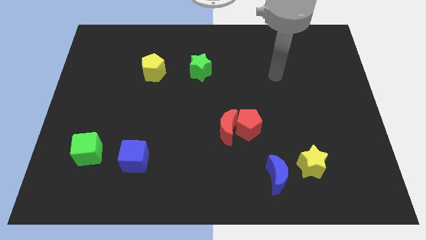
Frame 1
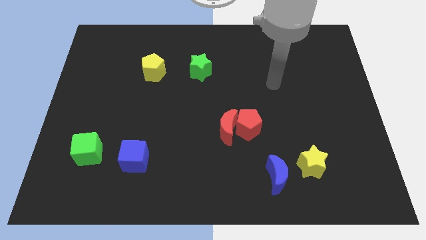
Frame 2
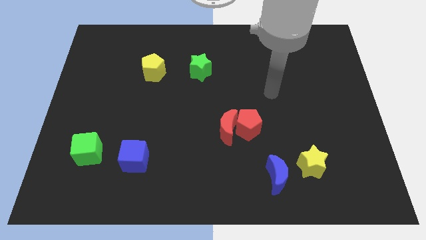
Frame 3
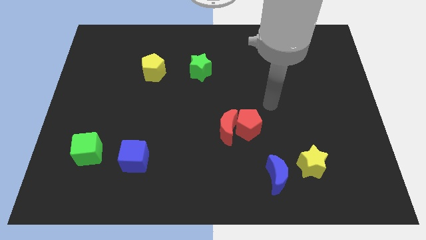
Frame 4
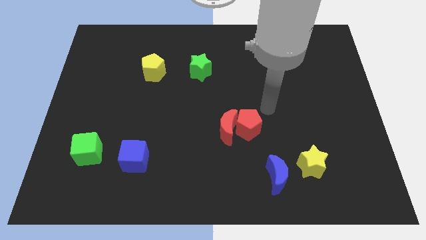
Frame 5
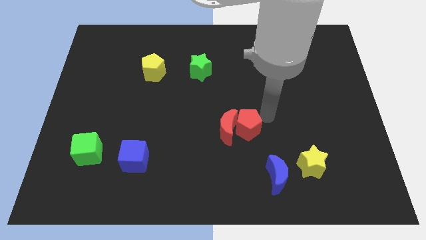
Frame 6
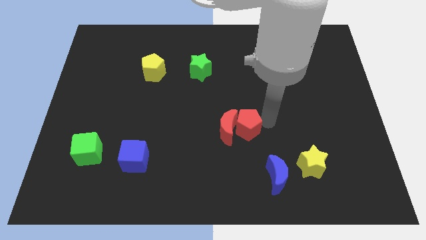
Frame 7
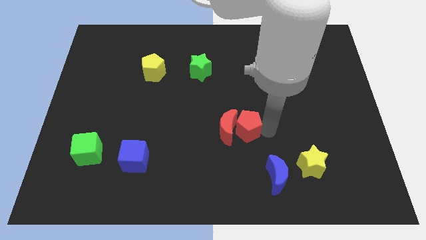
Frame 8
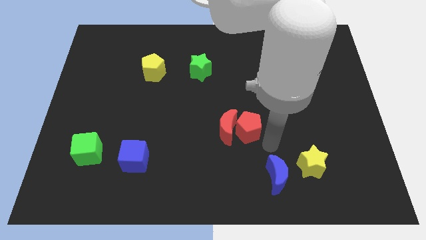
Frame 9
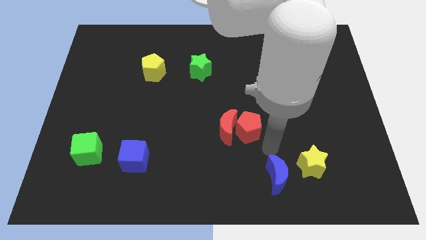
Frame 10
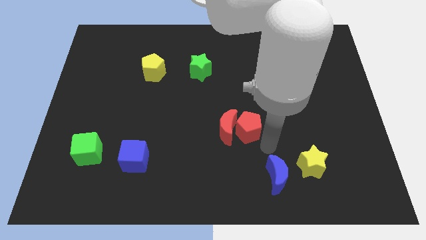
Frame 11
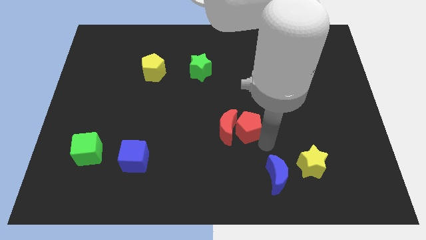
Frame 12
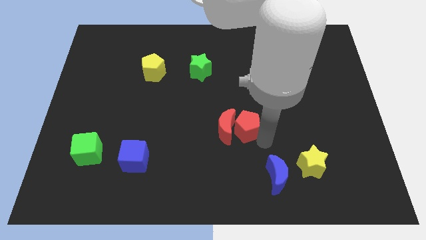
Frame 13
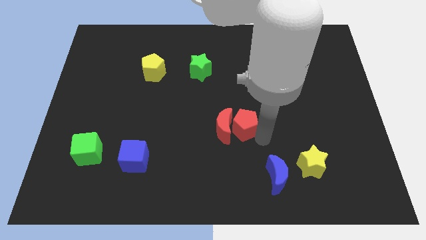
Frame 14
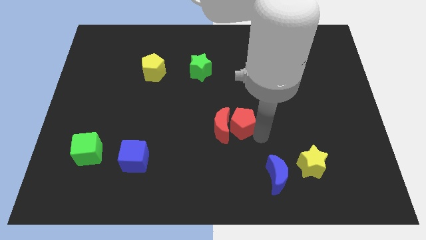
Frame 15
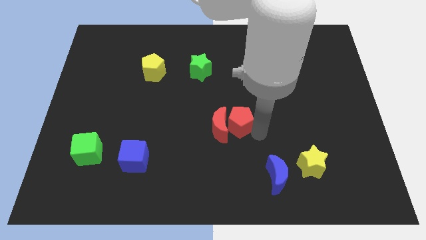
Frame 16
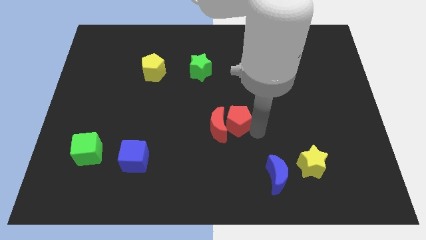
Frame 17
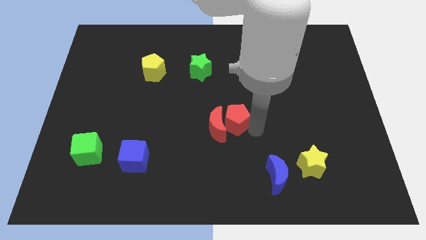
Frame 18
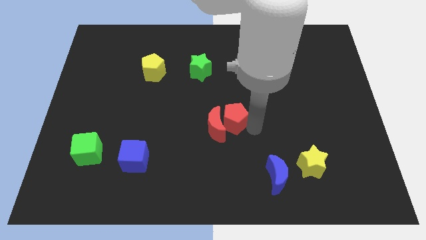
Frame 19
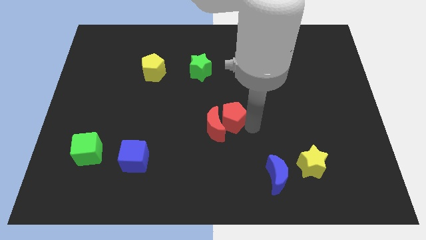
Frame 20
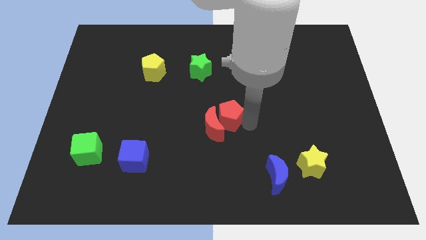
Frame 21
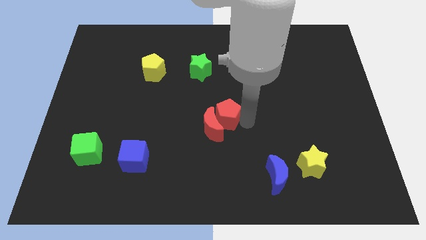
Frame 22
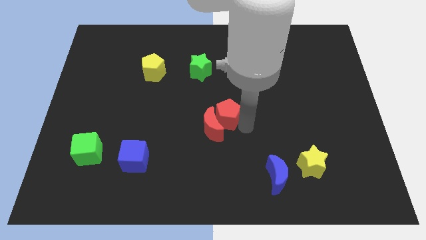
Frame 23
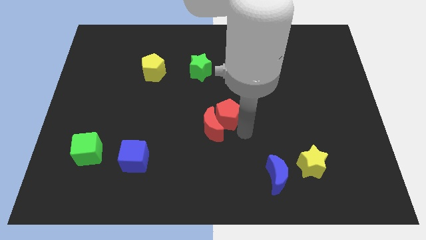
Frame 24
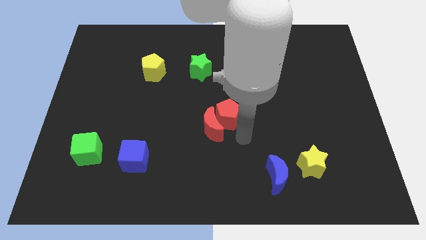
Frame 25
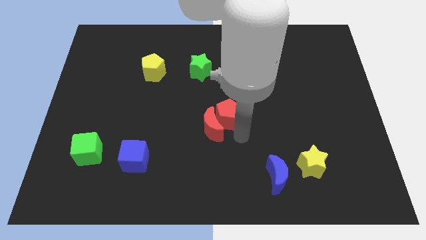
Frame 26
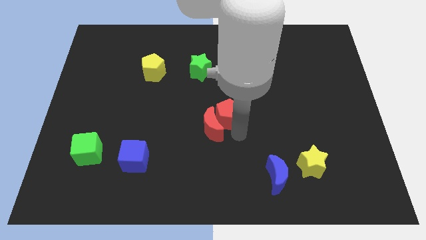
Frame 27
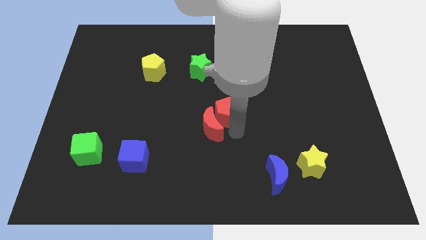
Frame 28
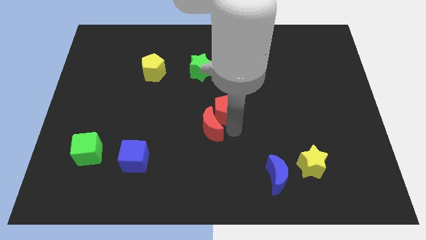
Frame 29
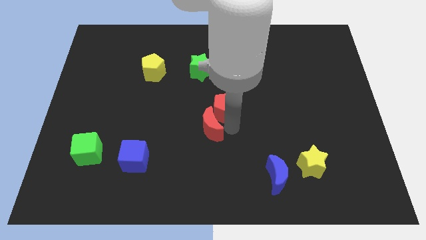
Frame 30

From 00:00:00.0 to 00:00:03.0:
push the red pentagon a little diagonally up and to the left

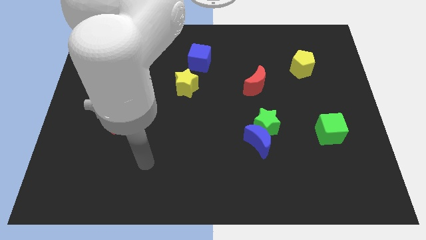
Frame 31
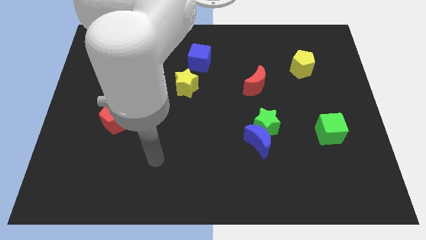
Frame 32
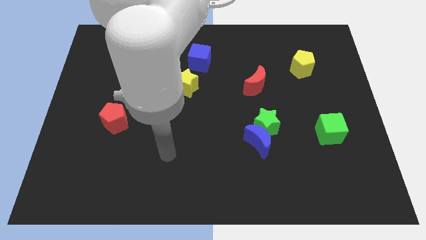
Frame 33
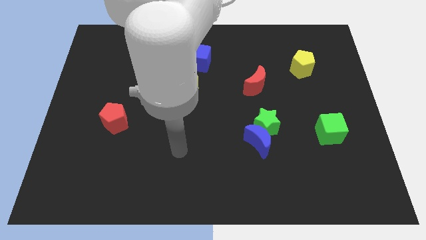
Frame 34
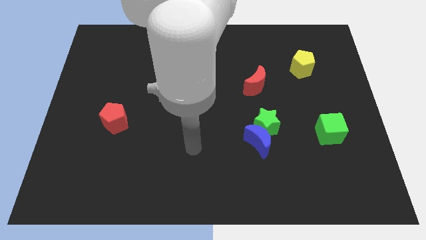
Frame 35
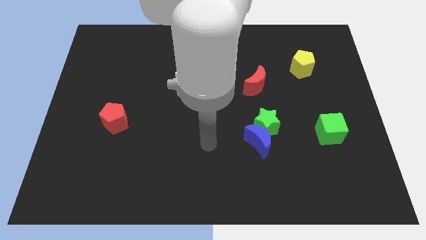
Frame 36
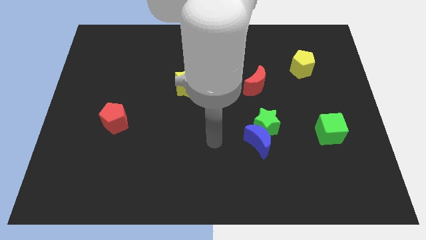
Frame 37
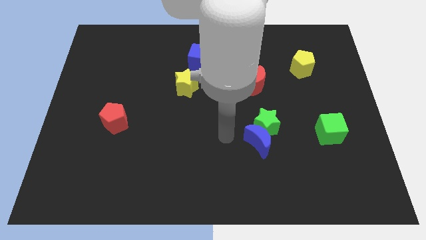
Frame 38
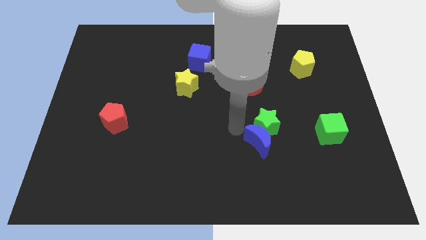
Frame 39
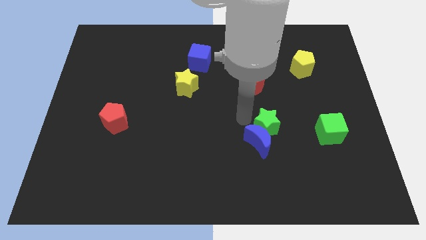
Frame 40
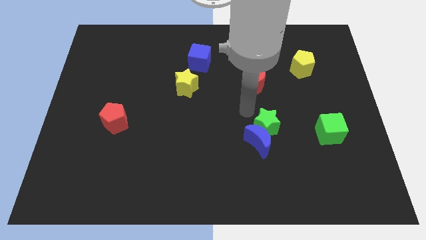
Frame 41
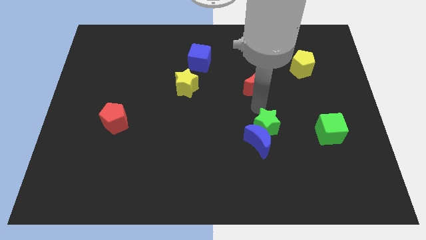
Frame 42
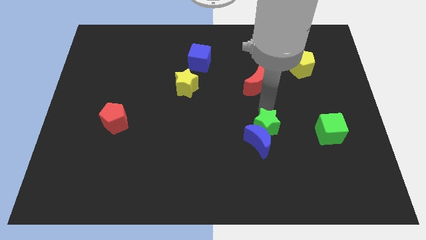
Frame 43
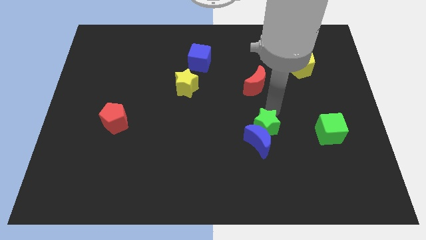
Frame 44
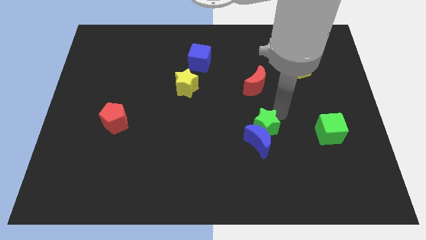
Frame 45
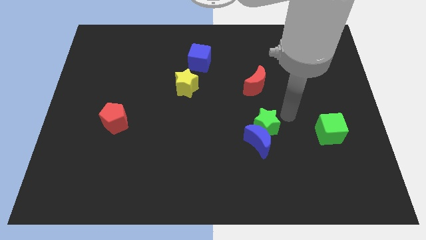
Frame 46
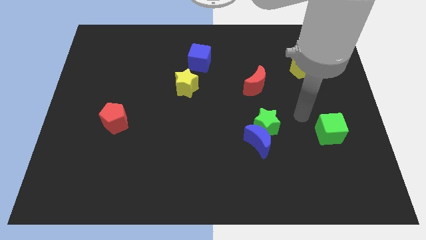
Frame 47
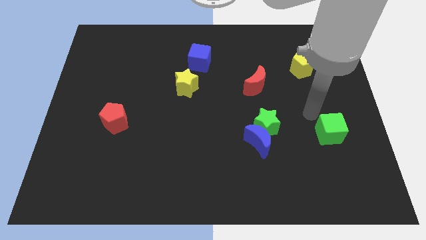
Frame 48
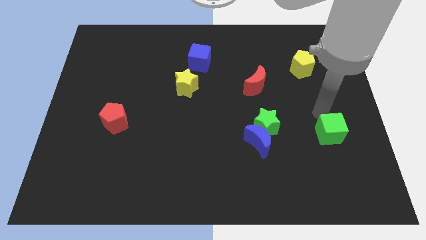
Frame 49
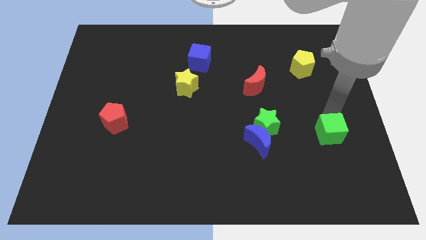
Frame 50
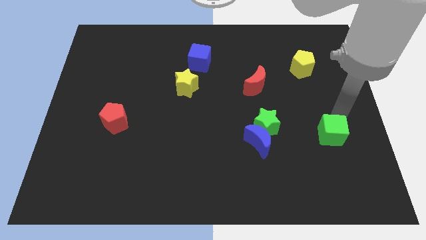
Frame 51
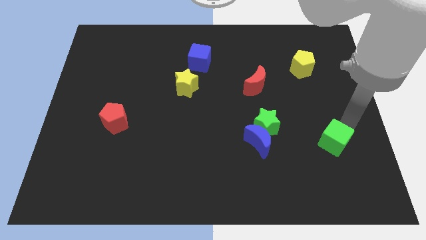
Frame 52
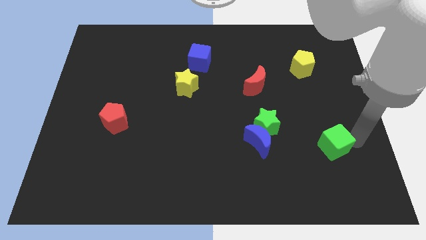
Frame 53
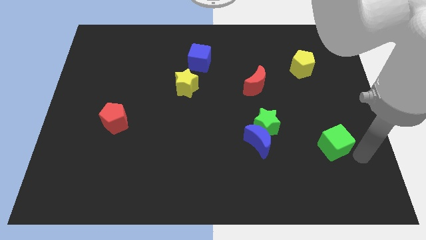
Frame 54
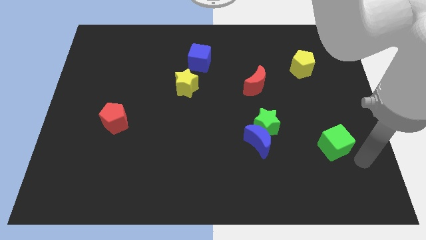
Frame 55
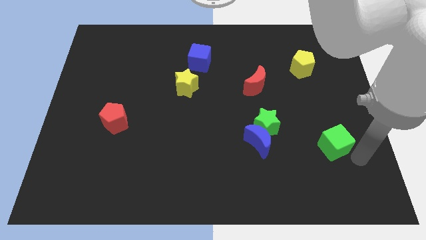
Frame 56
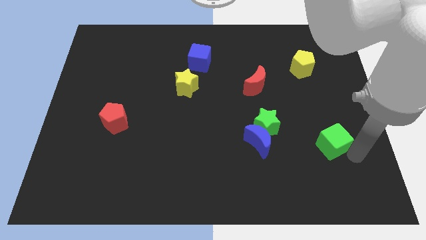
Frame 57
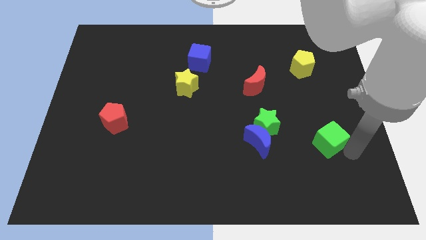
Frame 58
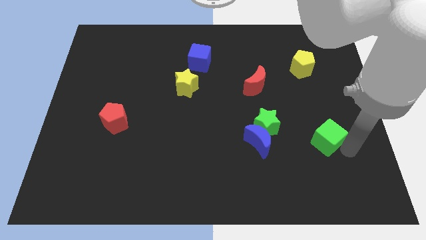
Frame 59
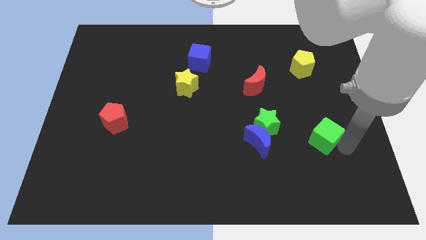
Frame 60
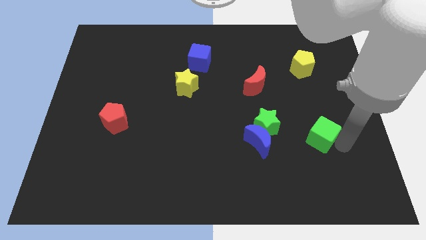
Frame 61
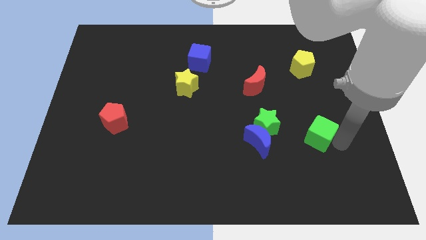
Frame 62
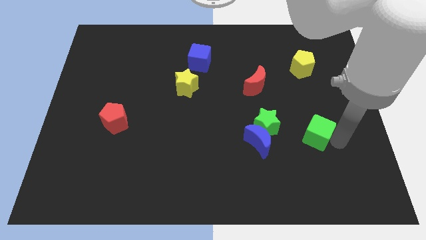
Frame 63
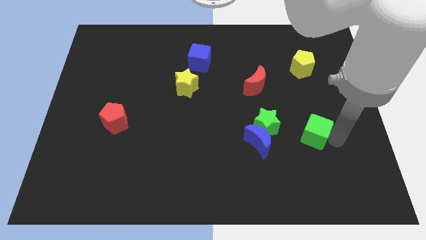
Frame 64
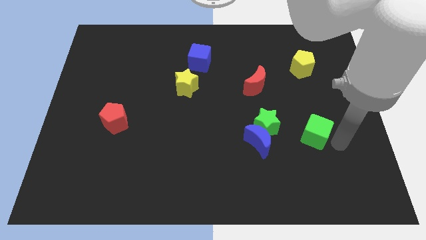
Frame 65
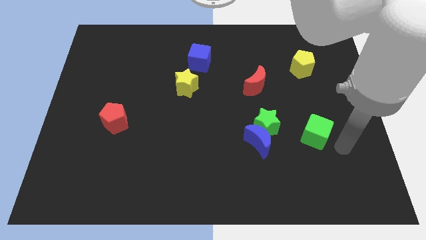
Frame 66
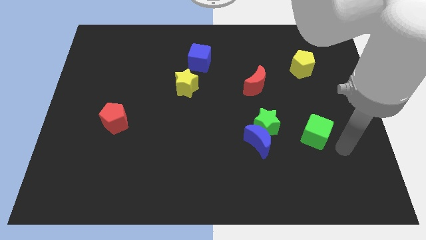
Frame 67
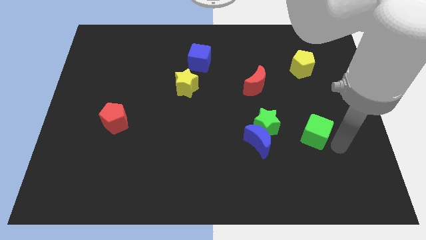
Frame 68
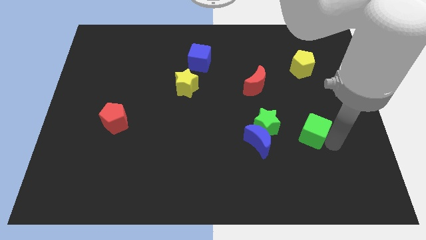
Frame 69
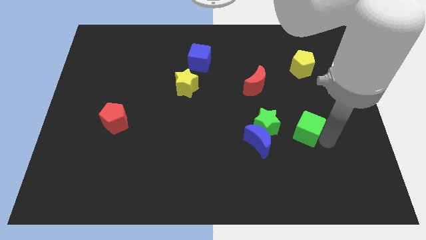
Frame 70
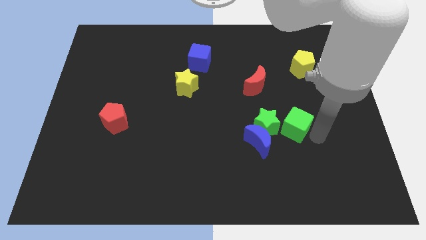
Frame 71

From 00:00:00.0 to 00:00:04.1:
slide the green cube to the left a bit

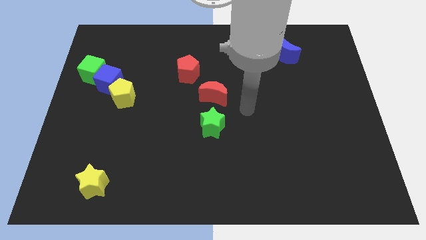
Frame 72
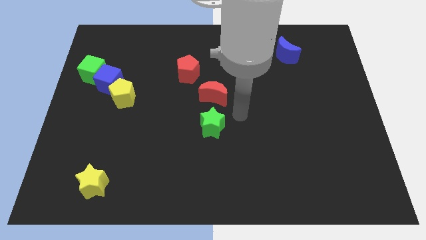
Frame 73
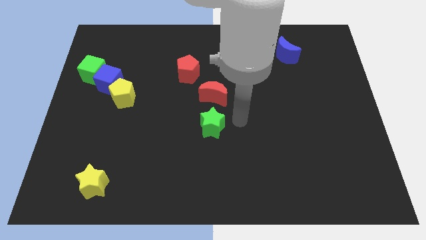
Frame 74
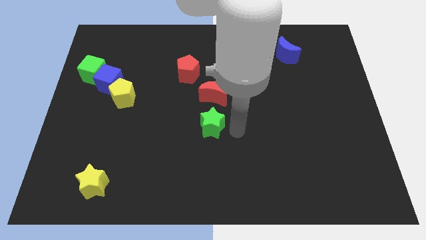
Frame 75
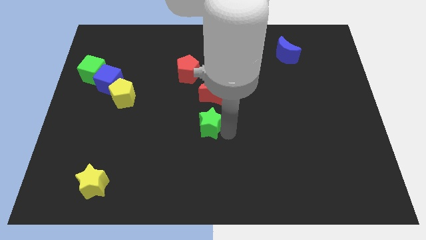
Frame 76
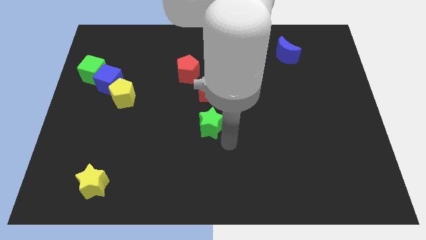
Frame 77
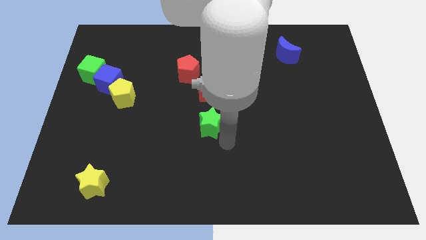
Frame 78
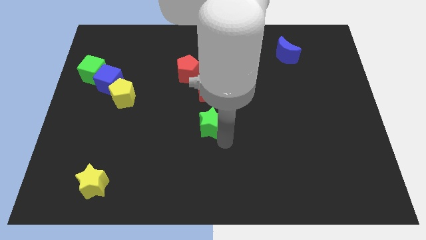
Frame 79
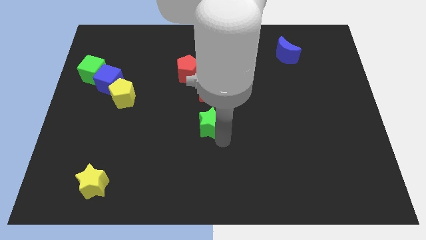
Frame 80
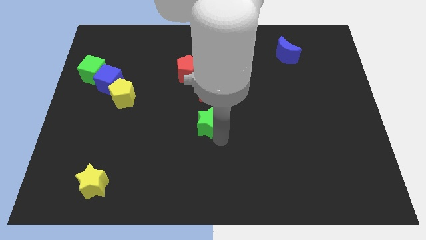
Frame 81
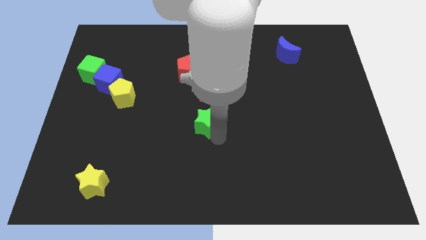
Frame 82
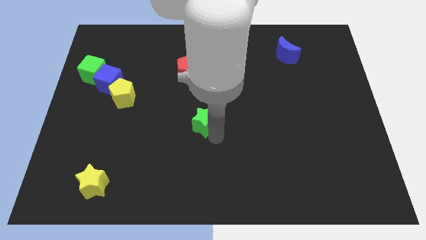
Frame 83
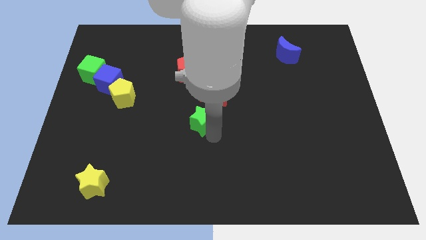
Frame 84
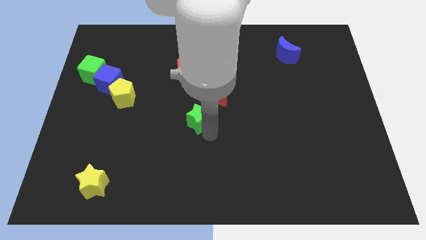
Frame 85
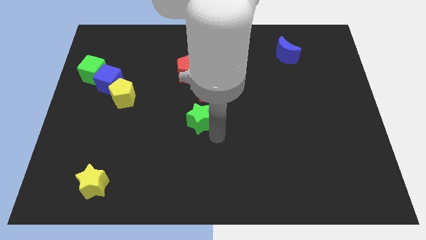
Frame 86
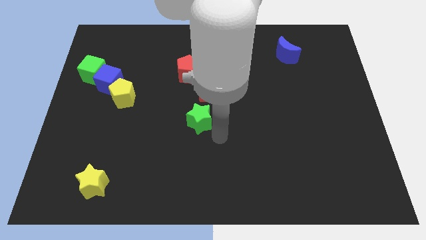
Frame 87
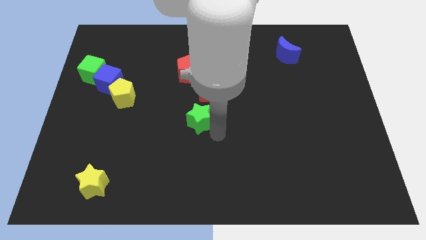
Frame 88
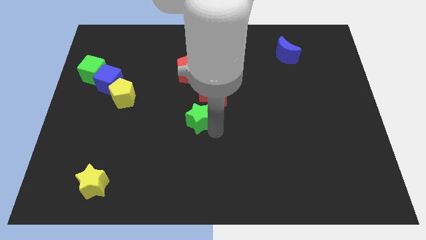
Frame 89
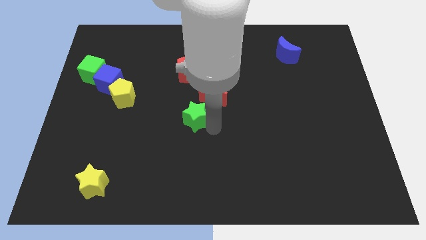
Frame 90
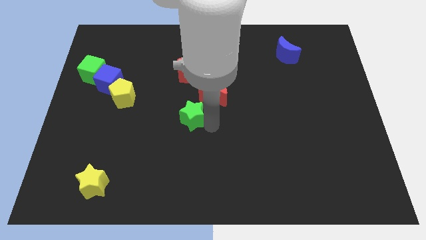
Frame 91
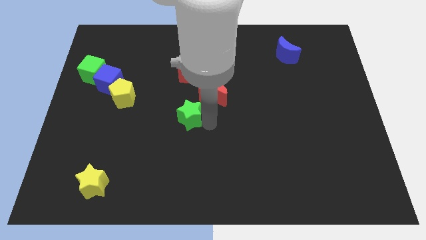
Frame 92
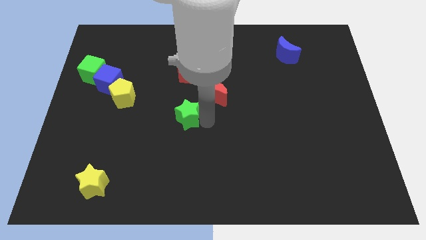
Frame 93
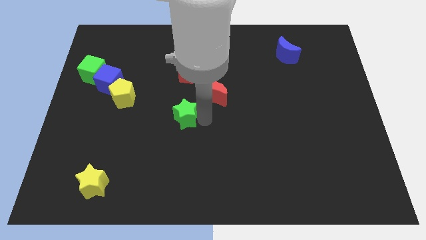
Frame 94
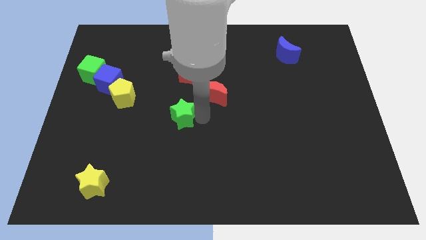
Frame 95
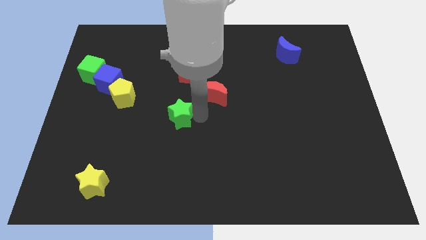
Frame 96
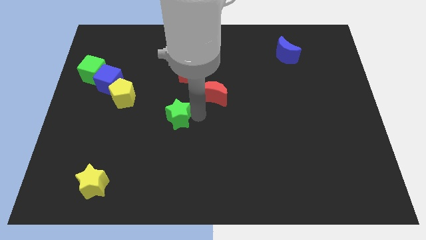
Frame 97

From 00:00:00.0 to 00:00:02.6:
push the green star up and left a little bit
